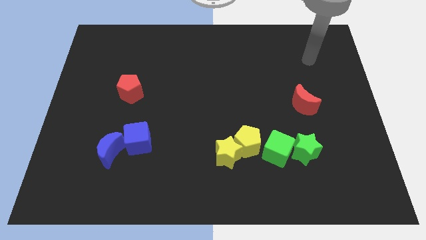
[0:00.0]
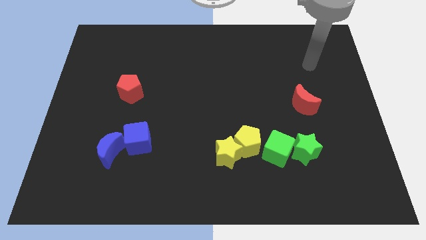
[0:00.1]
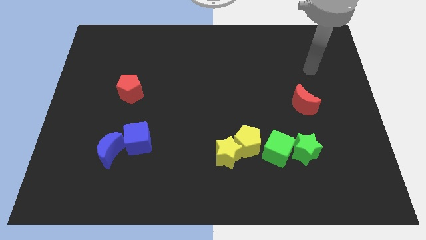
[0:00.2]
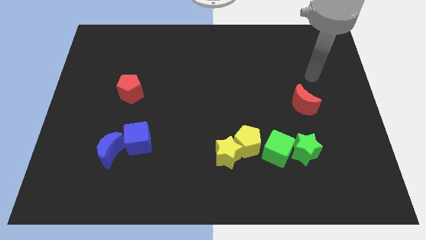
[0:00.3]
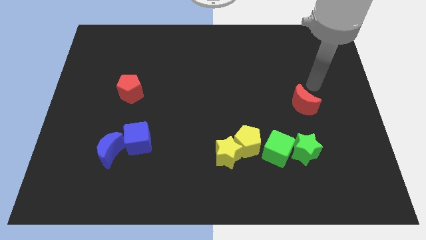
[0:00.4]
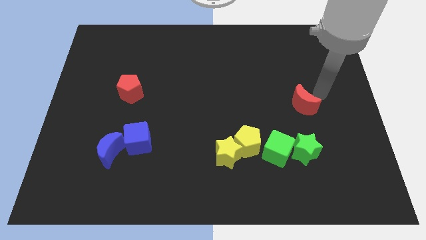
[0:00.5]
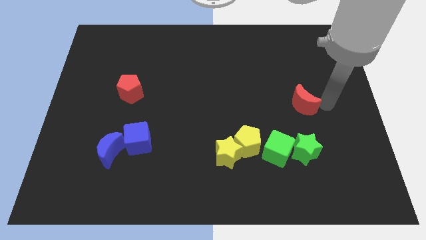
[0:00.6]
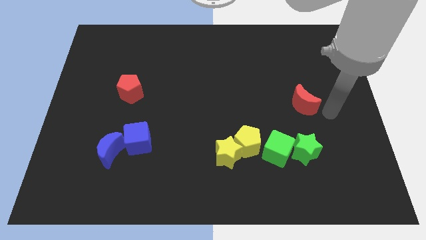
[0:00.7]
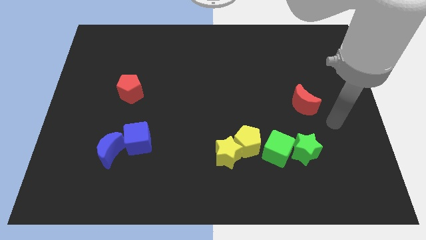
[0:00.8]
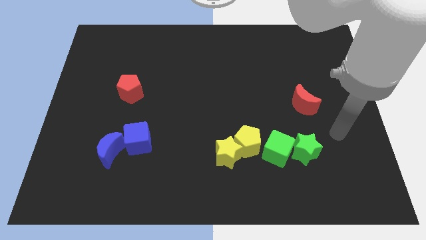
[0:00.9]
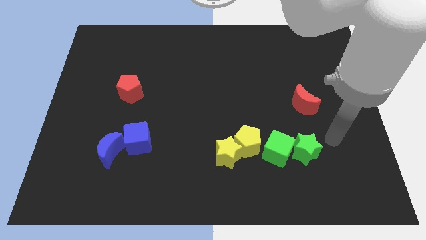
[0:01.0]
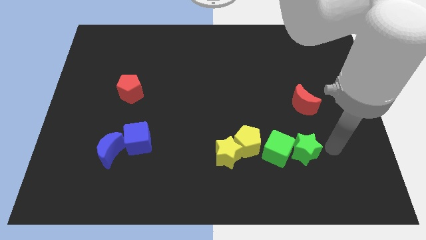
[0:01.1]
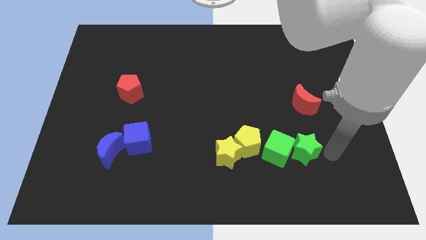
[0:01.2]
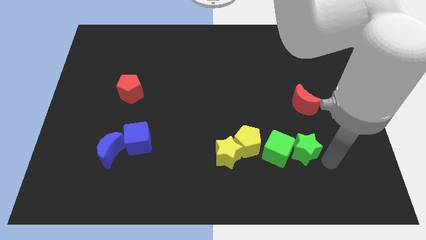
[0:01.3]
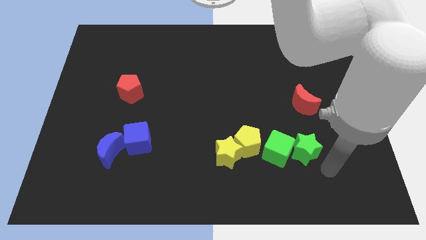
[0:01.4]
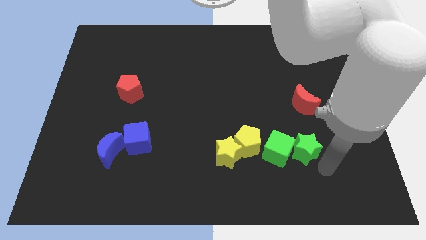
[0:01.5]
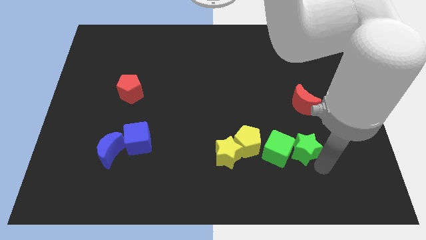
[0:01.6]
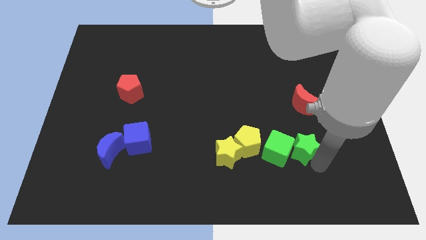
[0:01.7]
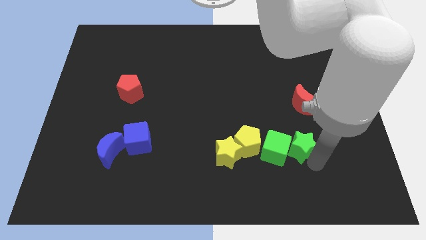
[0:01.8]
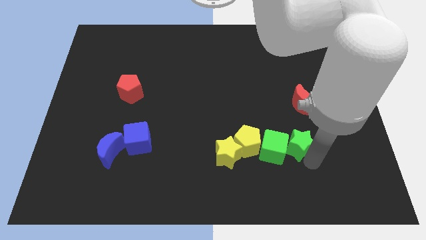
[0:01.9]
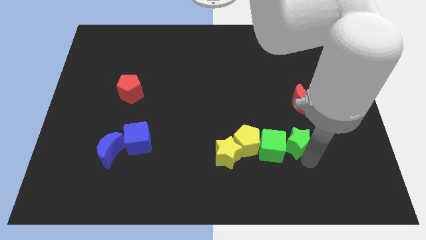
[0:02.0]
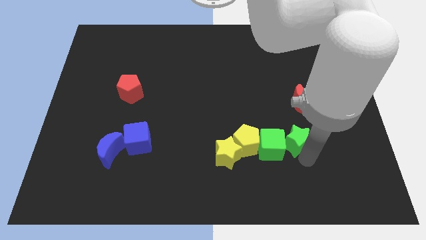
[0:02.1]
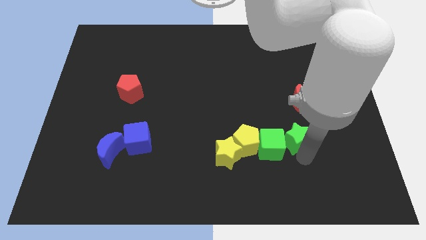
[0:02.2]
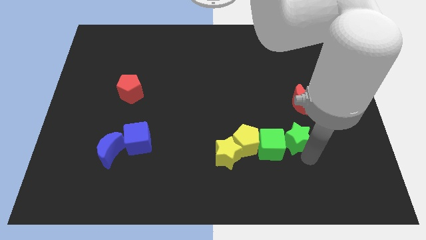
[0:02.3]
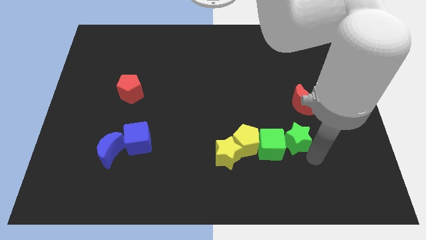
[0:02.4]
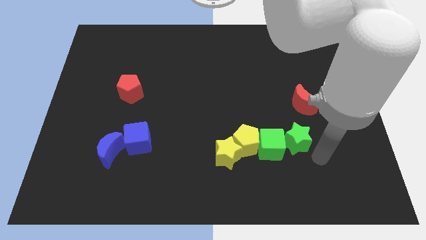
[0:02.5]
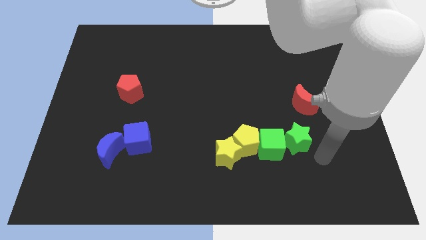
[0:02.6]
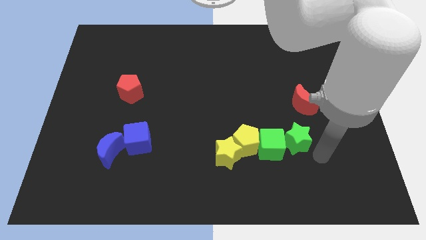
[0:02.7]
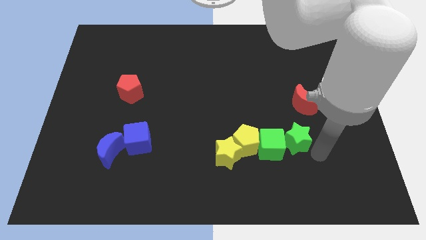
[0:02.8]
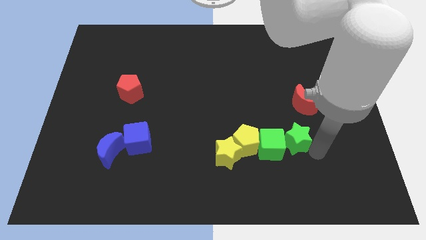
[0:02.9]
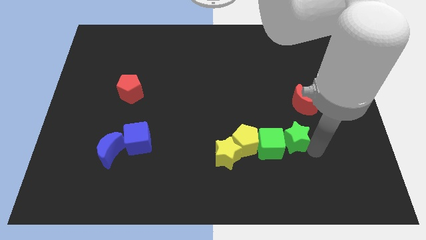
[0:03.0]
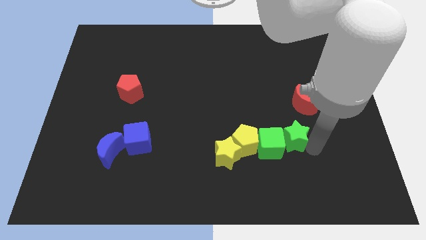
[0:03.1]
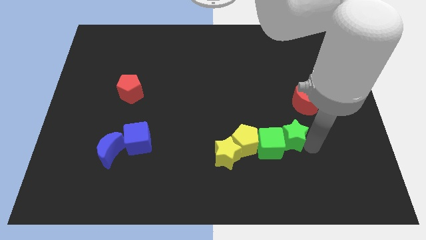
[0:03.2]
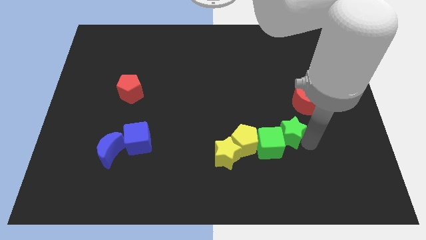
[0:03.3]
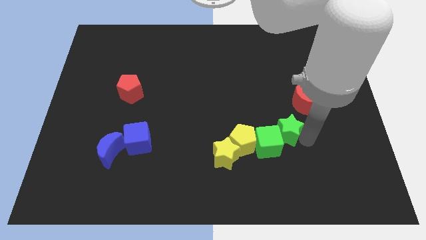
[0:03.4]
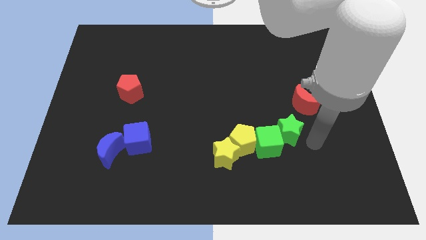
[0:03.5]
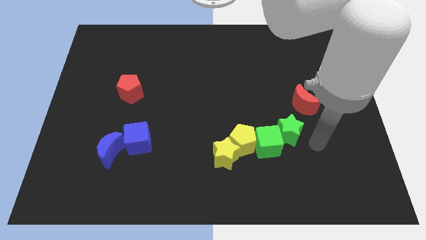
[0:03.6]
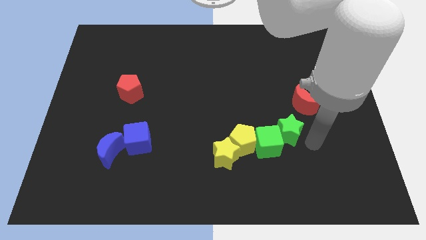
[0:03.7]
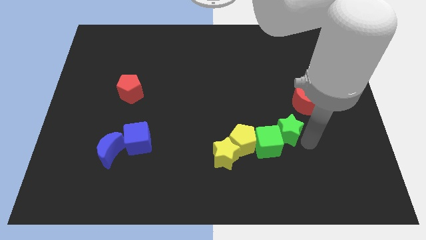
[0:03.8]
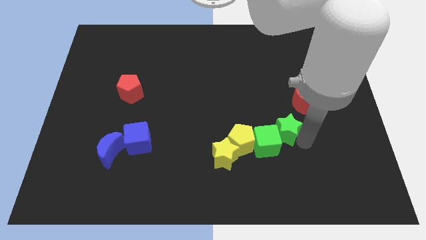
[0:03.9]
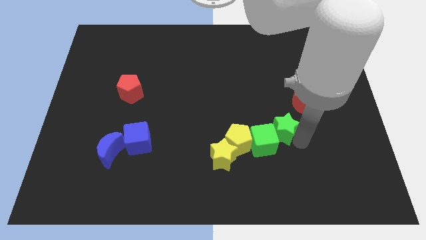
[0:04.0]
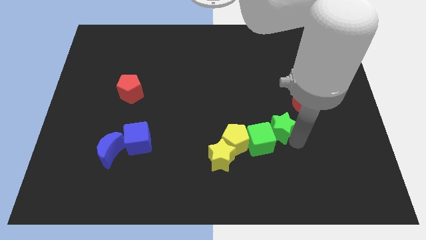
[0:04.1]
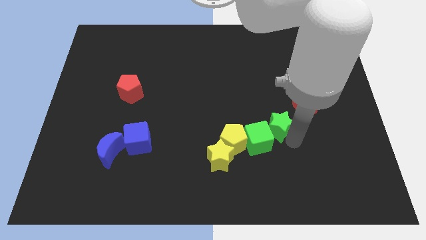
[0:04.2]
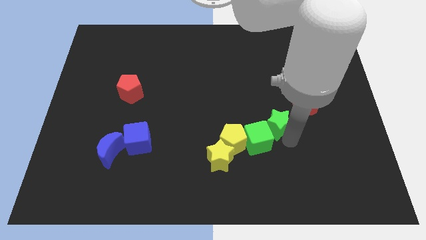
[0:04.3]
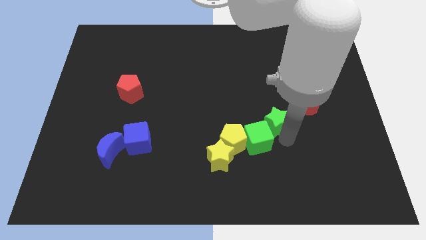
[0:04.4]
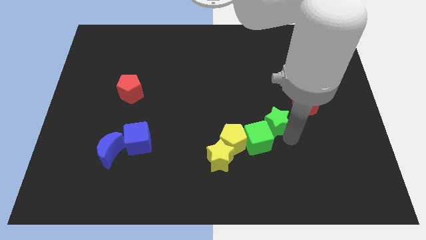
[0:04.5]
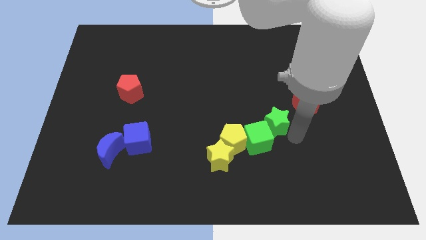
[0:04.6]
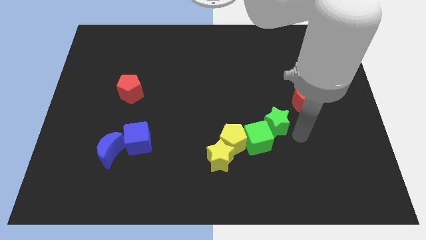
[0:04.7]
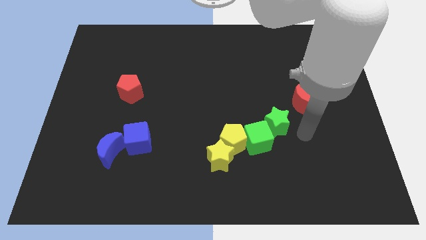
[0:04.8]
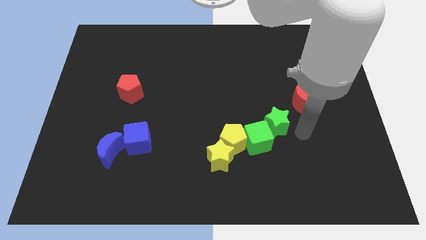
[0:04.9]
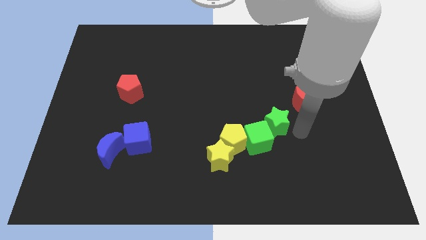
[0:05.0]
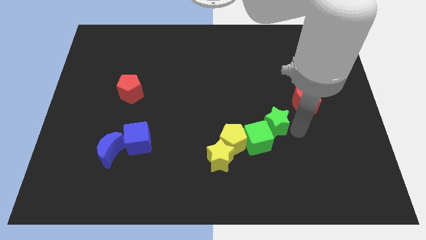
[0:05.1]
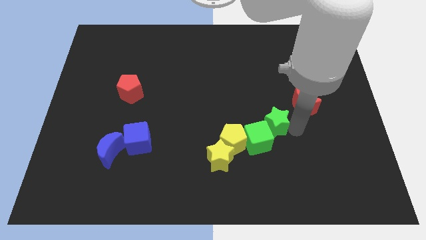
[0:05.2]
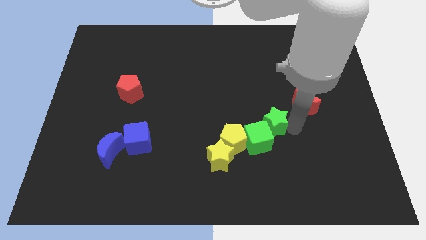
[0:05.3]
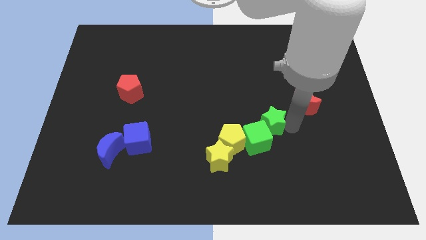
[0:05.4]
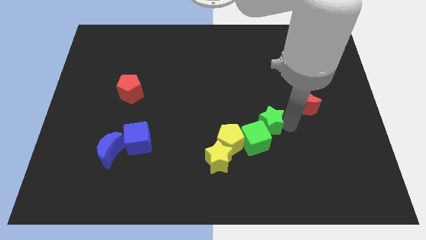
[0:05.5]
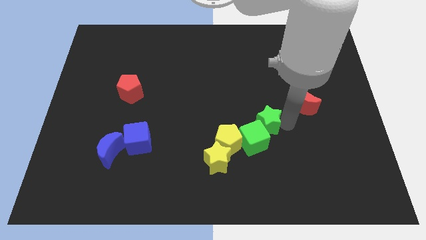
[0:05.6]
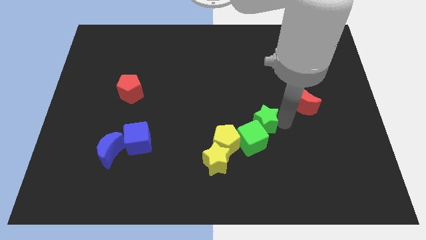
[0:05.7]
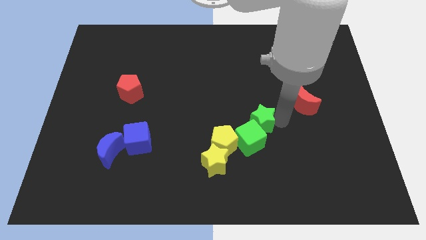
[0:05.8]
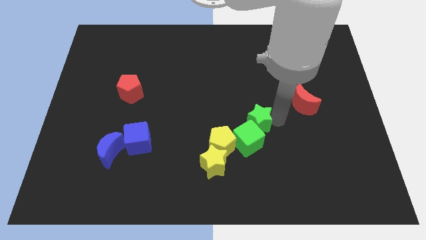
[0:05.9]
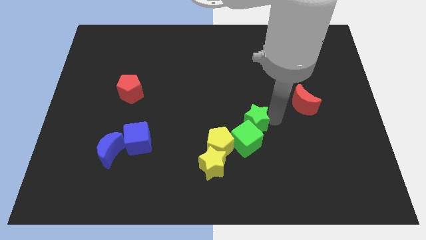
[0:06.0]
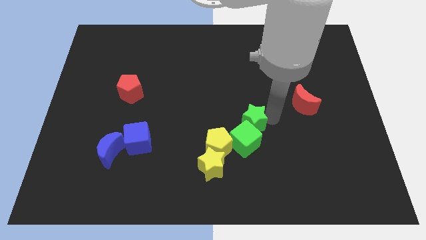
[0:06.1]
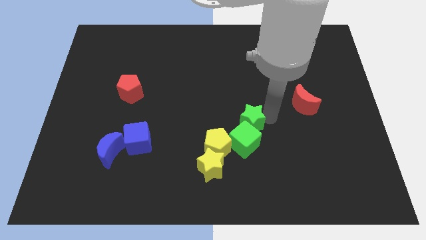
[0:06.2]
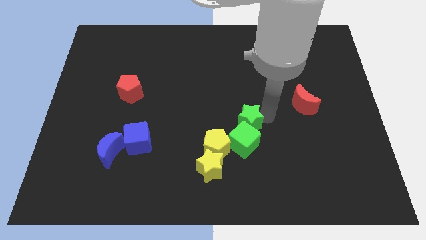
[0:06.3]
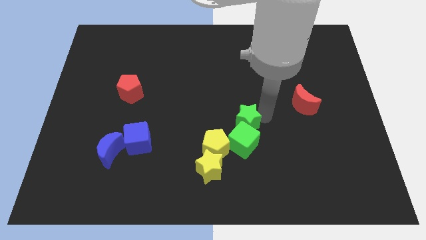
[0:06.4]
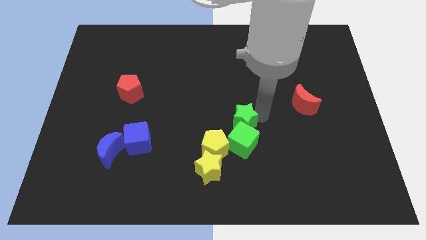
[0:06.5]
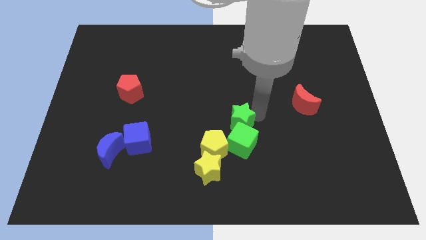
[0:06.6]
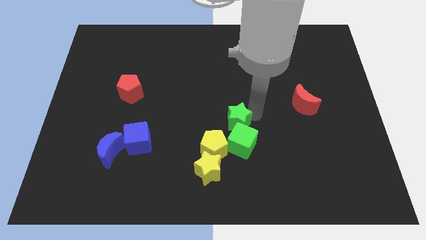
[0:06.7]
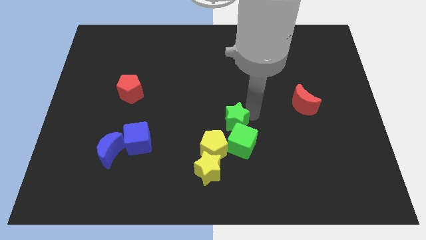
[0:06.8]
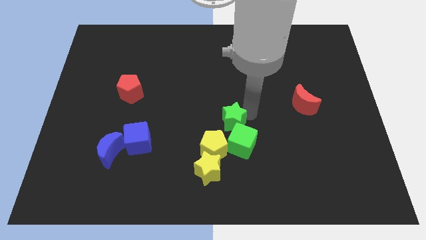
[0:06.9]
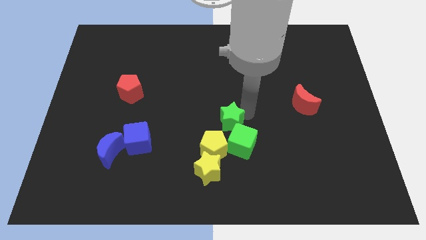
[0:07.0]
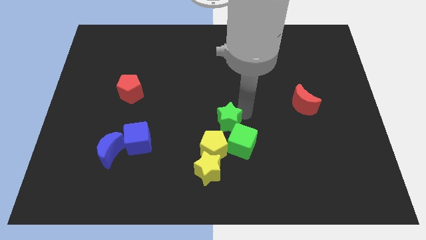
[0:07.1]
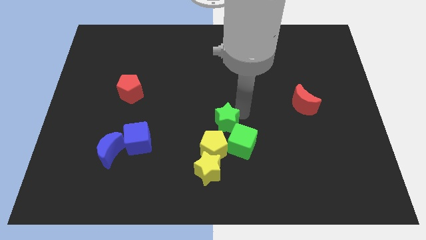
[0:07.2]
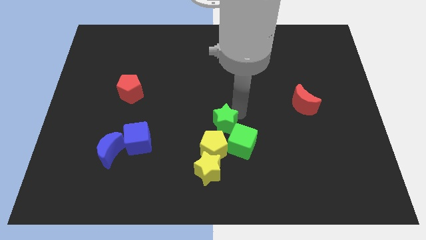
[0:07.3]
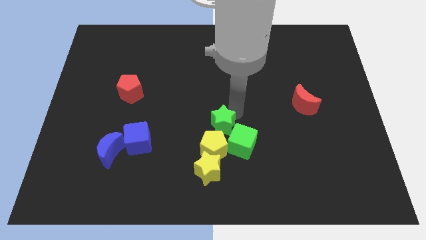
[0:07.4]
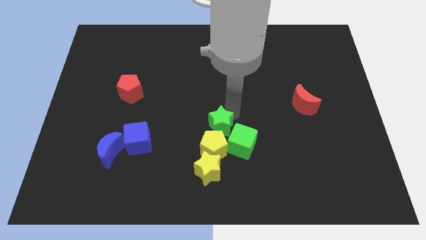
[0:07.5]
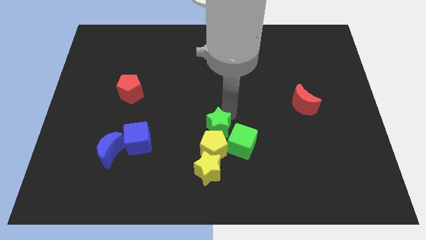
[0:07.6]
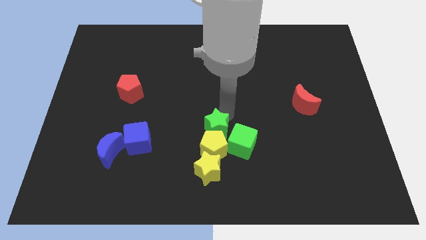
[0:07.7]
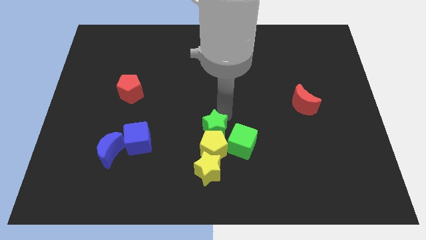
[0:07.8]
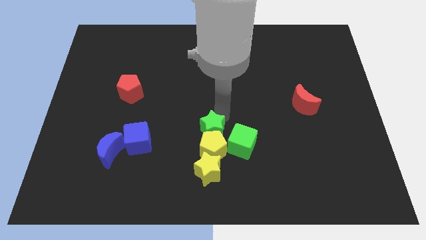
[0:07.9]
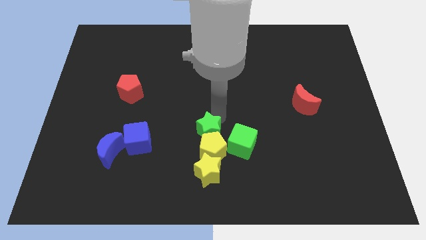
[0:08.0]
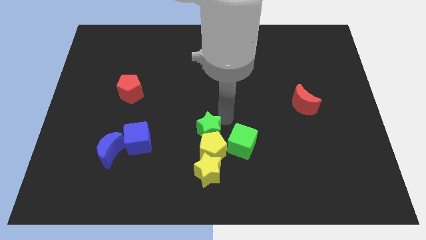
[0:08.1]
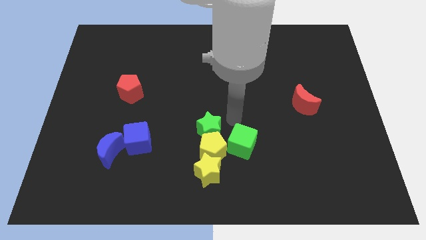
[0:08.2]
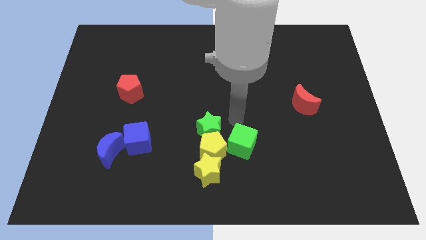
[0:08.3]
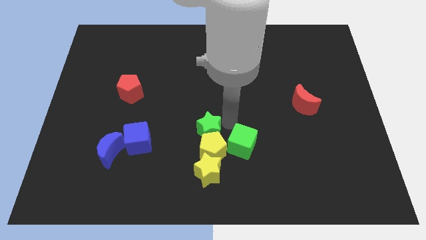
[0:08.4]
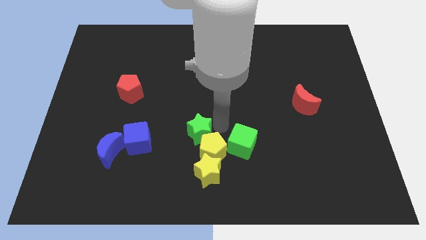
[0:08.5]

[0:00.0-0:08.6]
push the green star left
